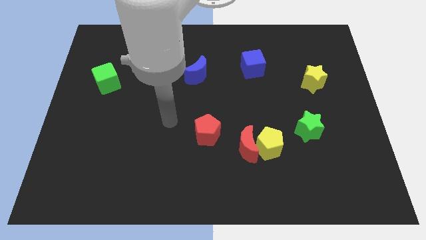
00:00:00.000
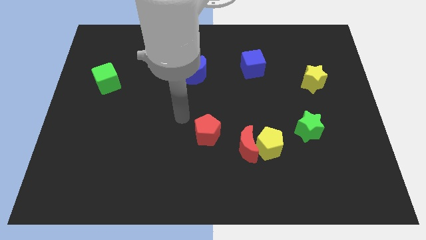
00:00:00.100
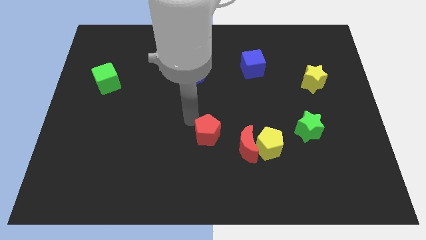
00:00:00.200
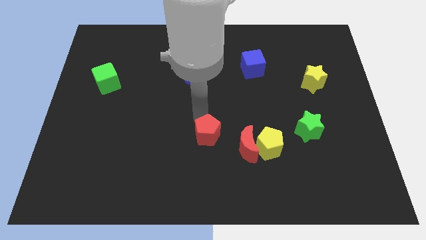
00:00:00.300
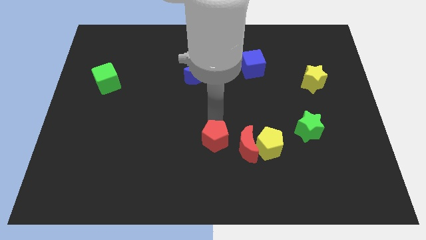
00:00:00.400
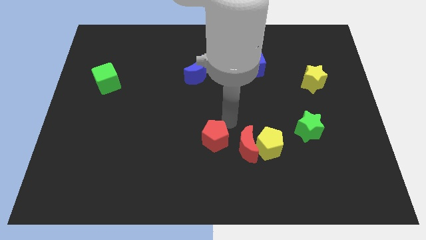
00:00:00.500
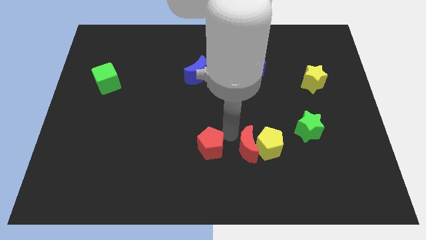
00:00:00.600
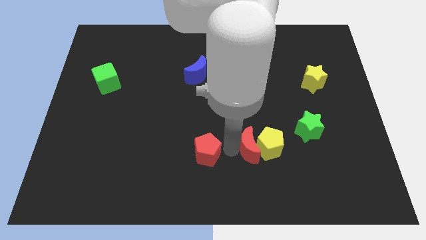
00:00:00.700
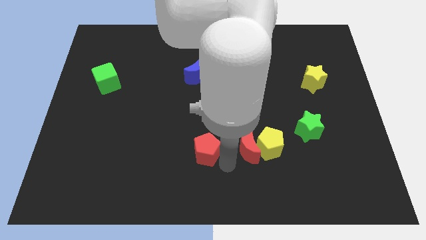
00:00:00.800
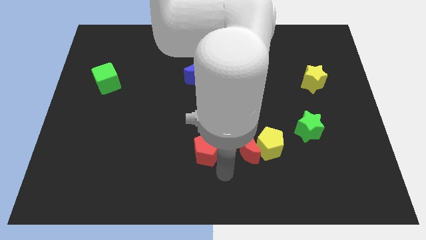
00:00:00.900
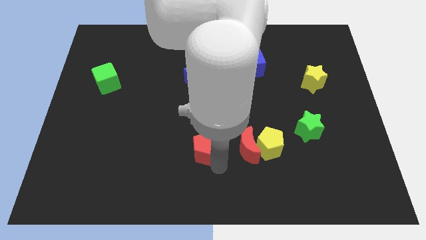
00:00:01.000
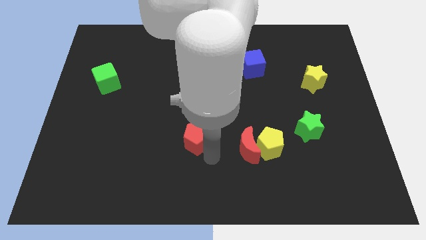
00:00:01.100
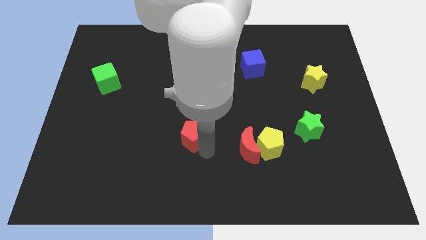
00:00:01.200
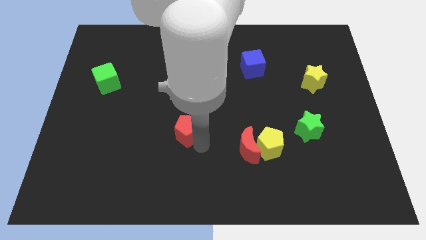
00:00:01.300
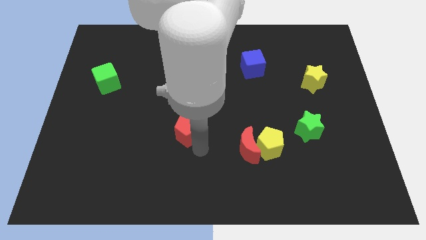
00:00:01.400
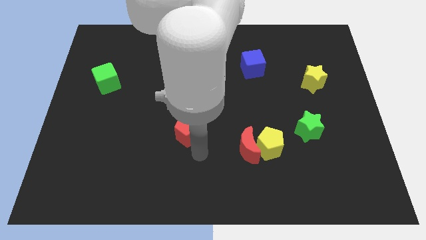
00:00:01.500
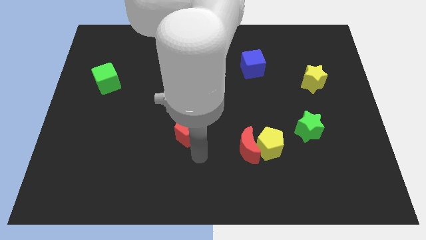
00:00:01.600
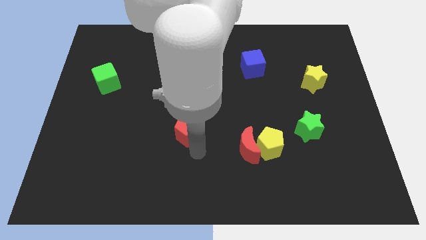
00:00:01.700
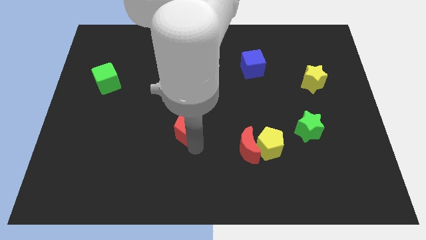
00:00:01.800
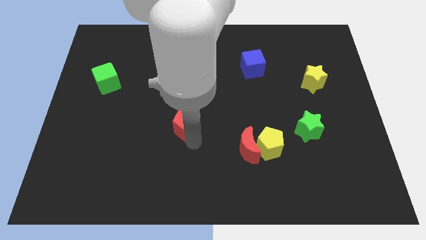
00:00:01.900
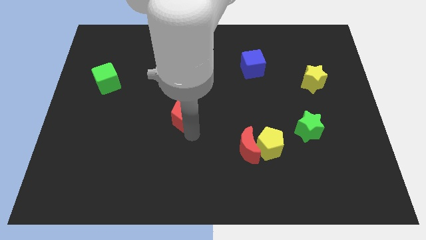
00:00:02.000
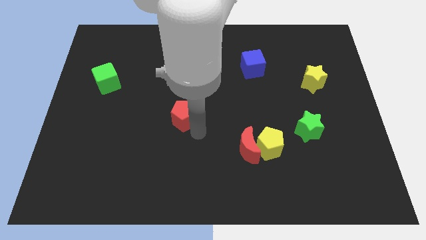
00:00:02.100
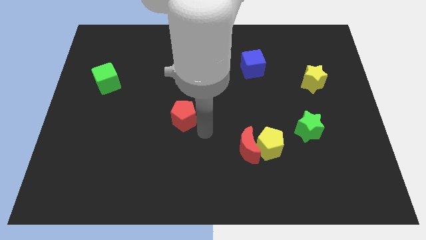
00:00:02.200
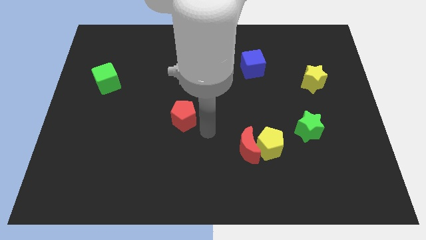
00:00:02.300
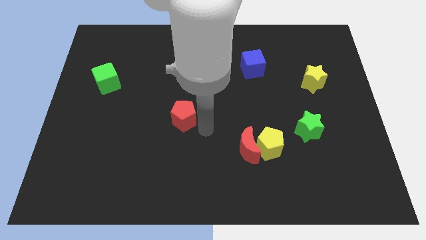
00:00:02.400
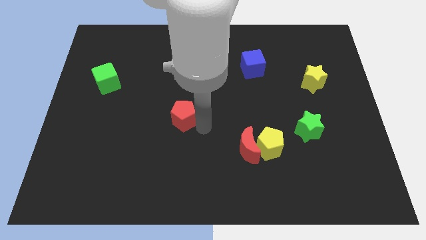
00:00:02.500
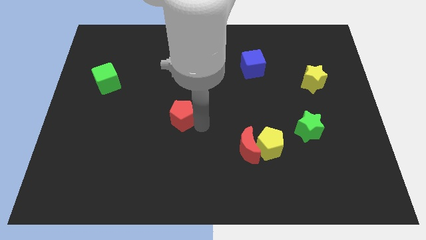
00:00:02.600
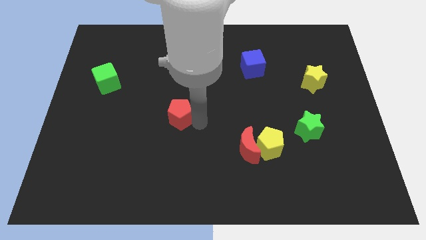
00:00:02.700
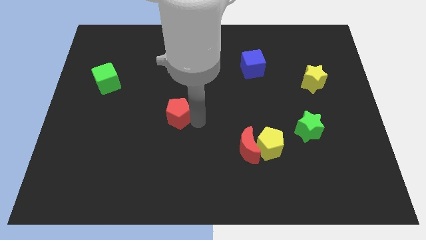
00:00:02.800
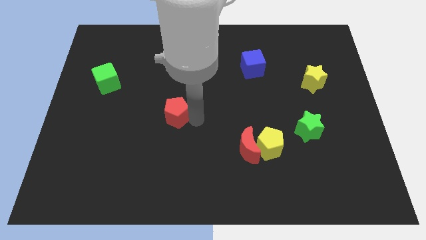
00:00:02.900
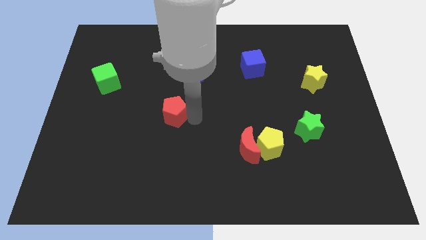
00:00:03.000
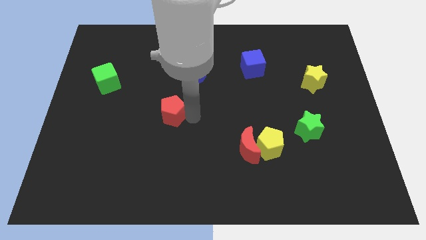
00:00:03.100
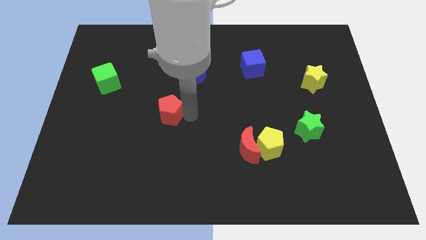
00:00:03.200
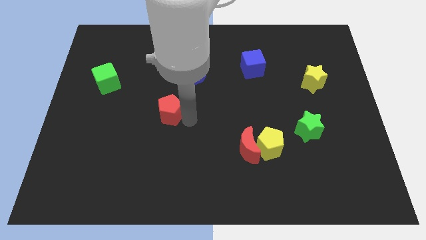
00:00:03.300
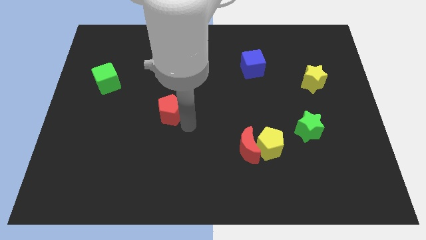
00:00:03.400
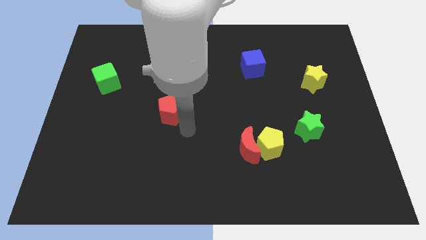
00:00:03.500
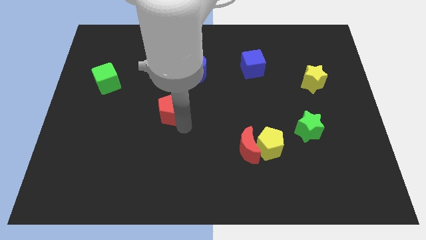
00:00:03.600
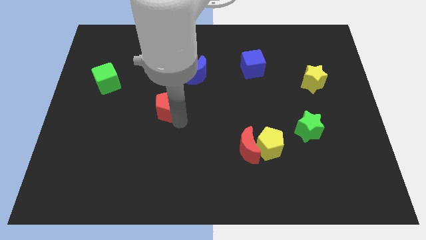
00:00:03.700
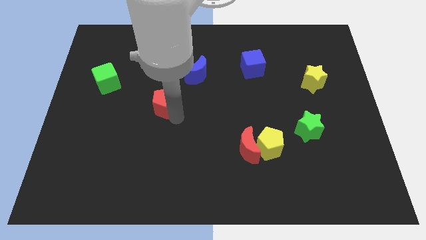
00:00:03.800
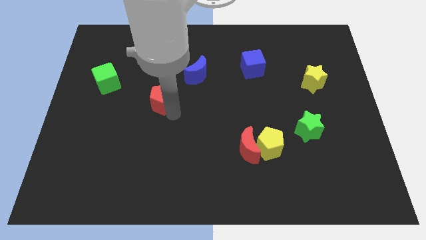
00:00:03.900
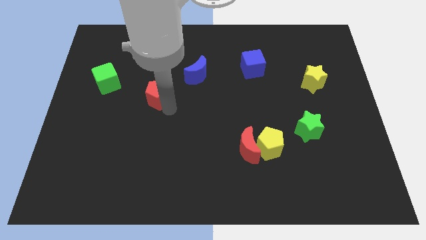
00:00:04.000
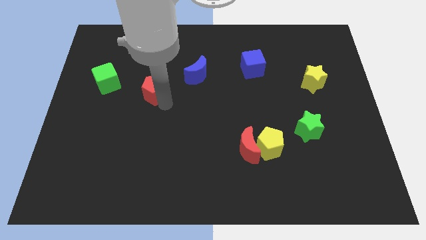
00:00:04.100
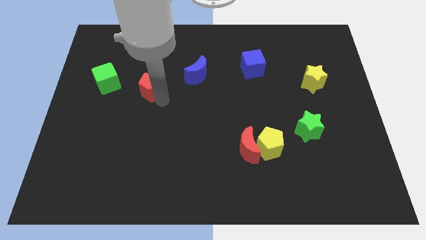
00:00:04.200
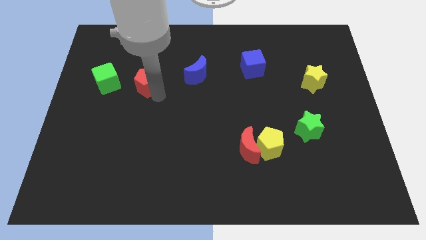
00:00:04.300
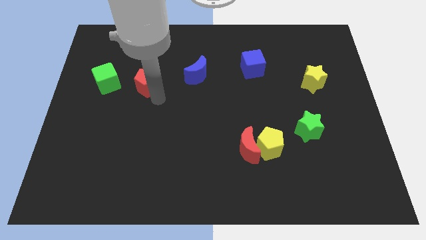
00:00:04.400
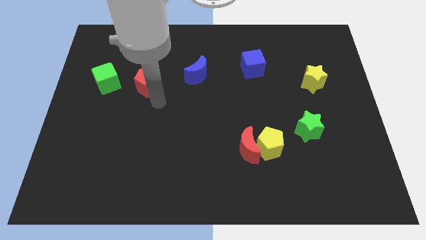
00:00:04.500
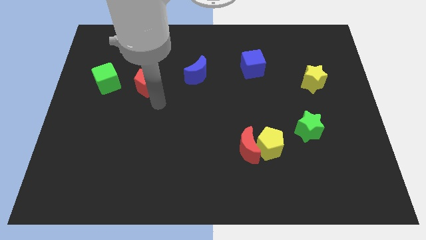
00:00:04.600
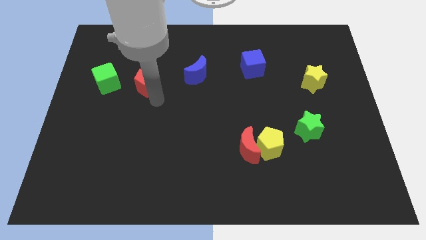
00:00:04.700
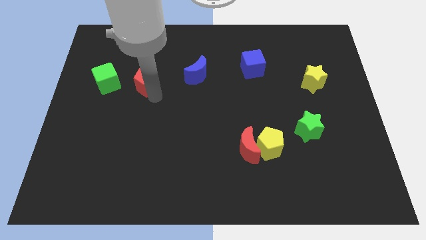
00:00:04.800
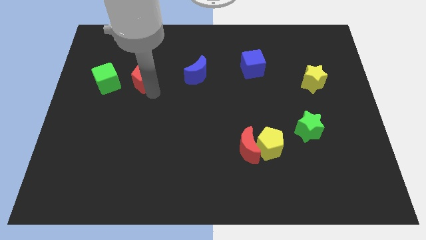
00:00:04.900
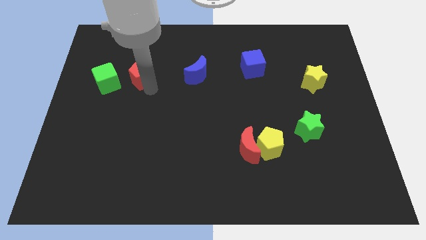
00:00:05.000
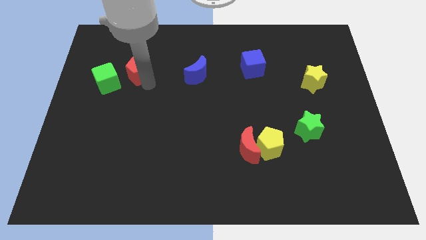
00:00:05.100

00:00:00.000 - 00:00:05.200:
push the red pentagon to the top right of the green cube

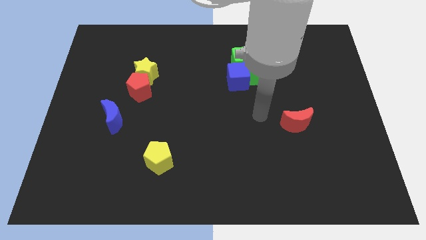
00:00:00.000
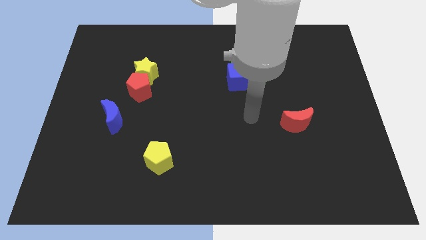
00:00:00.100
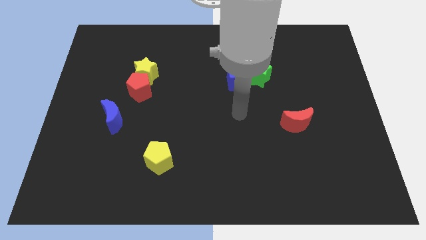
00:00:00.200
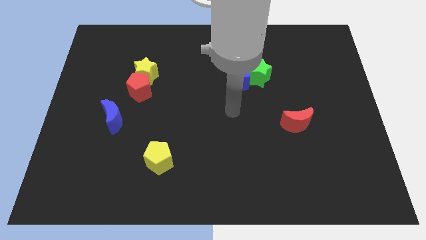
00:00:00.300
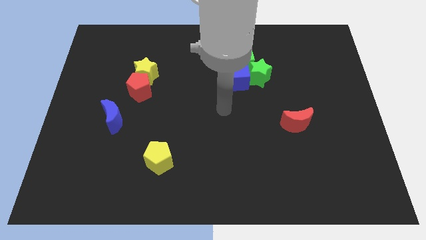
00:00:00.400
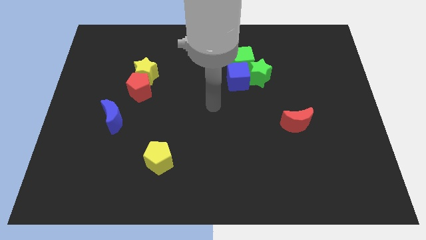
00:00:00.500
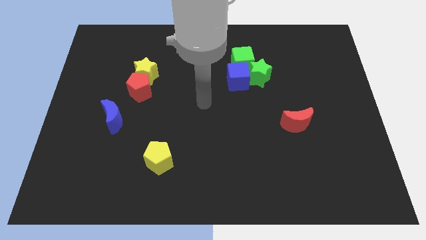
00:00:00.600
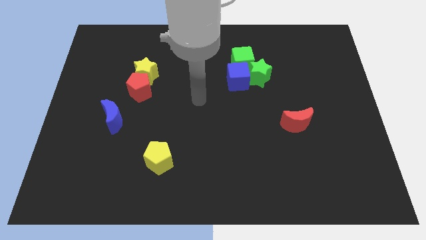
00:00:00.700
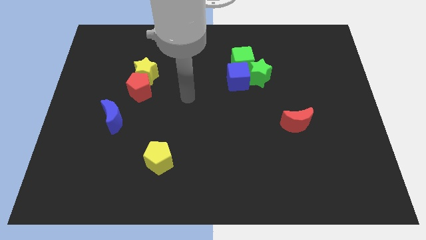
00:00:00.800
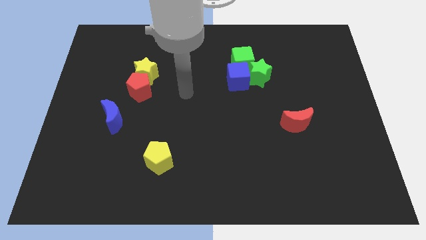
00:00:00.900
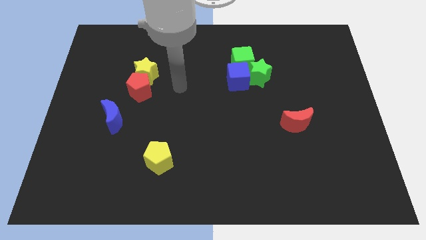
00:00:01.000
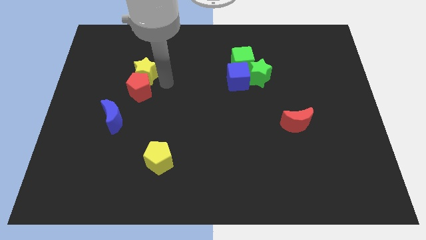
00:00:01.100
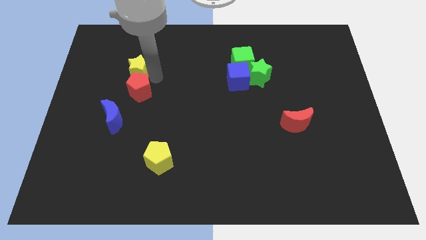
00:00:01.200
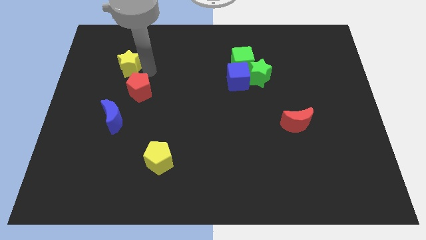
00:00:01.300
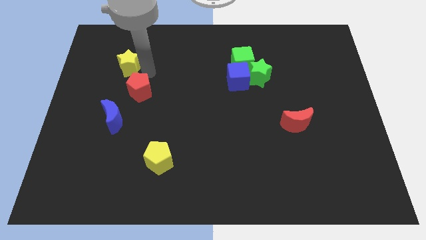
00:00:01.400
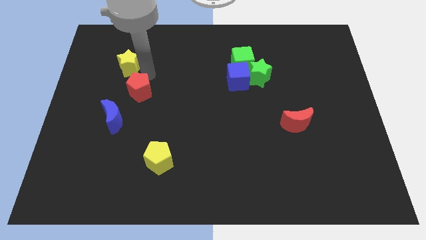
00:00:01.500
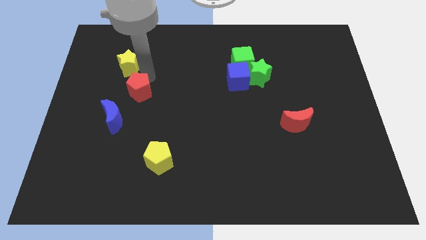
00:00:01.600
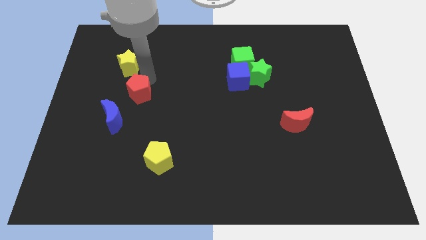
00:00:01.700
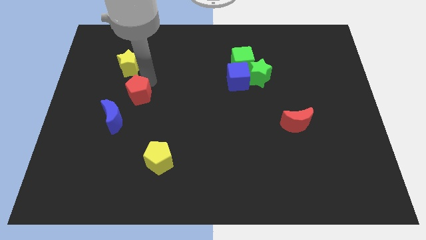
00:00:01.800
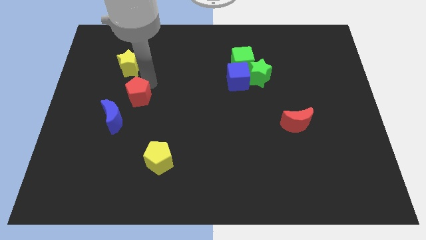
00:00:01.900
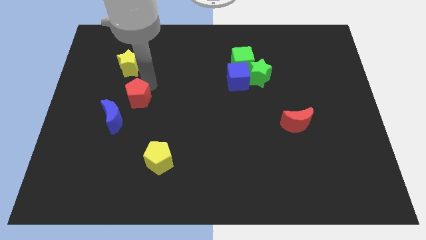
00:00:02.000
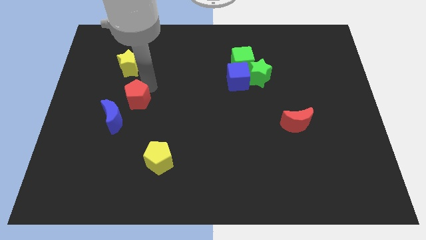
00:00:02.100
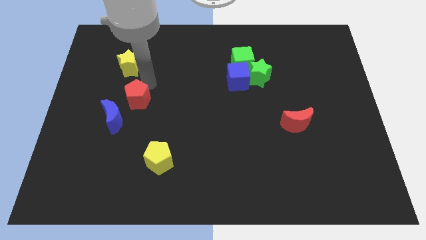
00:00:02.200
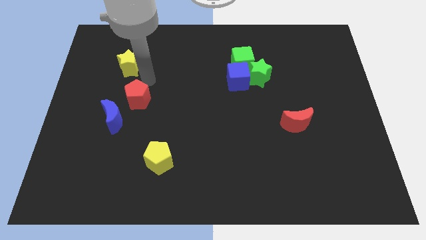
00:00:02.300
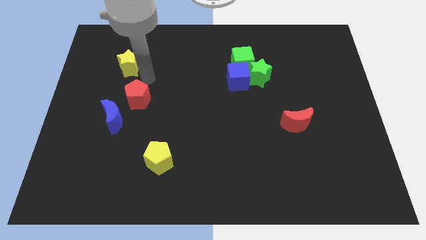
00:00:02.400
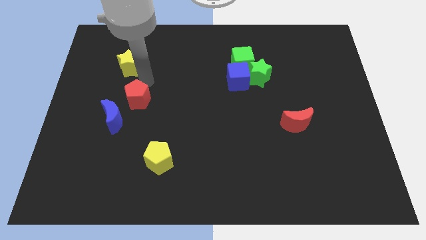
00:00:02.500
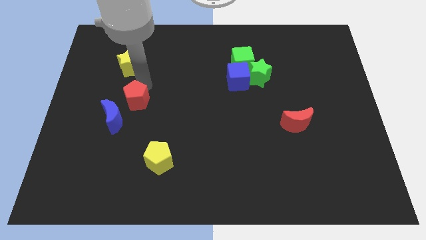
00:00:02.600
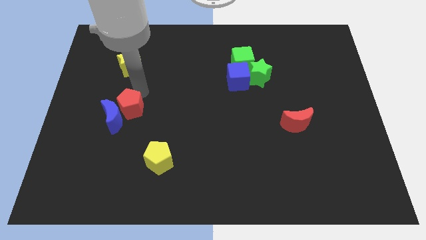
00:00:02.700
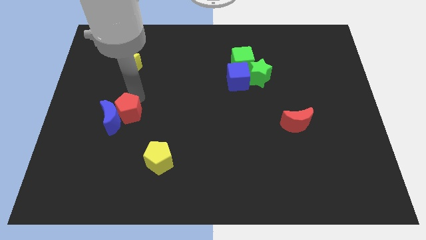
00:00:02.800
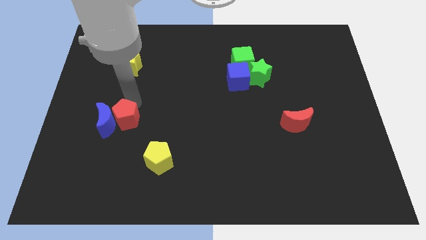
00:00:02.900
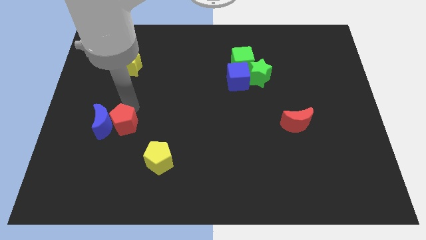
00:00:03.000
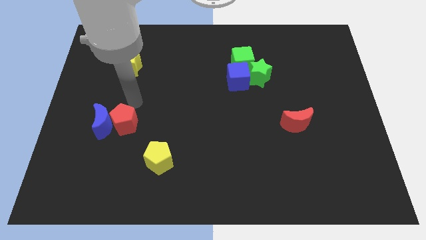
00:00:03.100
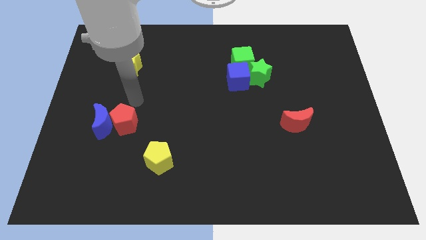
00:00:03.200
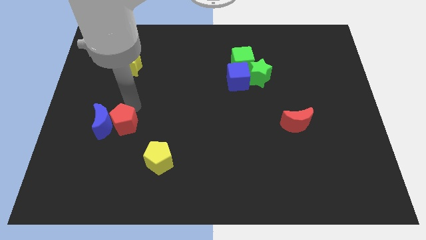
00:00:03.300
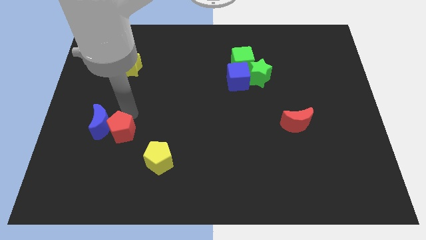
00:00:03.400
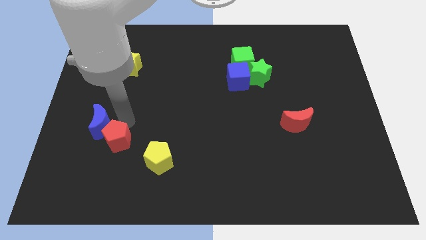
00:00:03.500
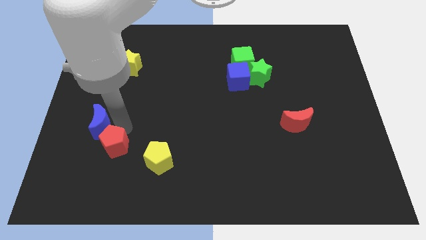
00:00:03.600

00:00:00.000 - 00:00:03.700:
push the red pentagon left of the yellow pentagon
